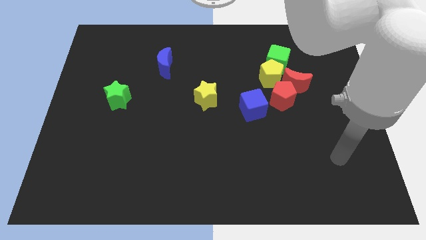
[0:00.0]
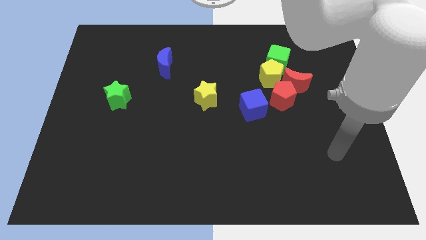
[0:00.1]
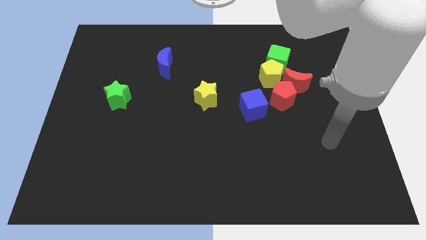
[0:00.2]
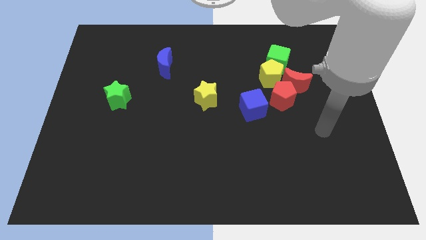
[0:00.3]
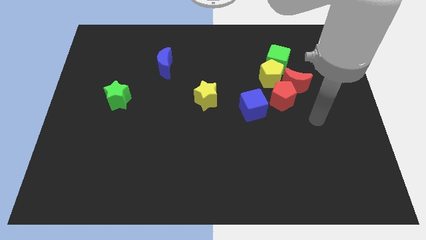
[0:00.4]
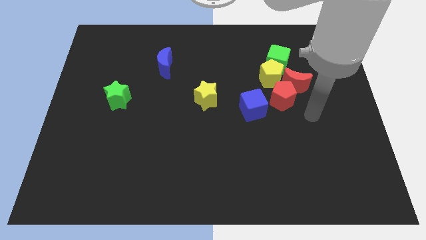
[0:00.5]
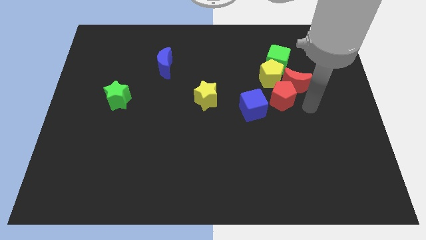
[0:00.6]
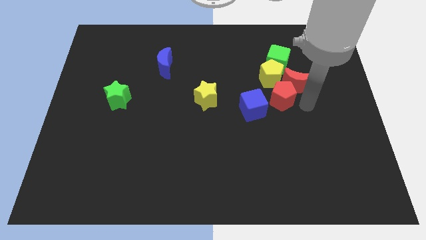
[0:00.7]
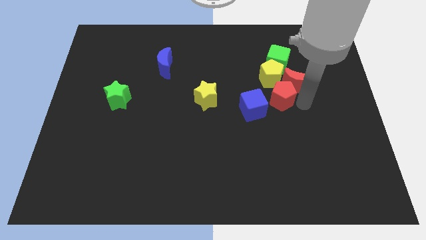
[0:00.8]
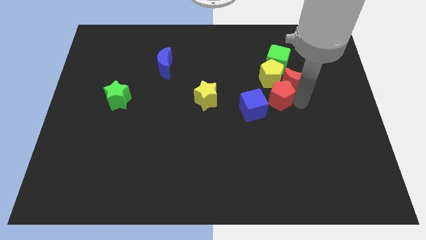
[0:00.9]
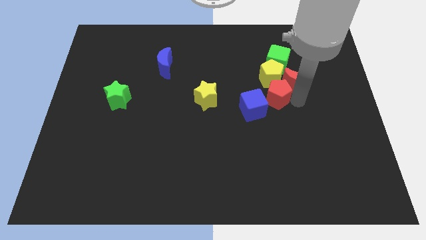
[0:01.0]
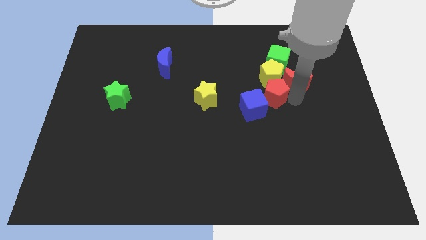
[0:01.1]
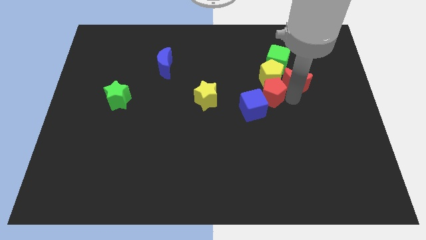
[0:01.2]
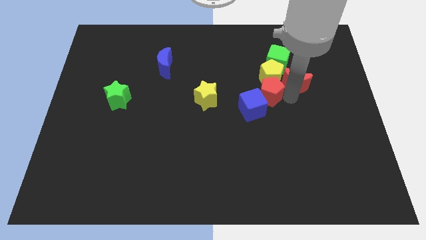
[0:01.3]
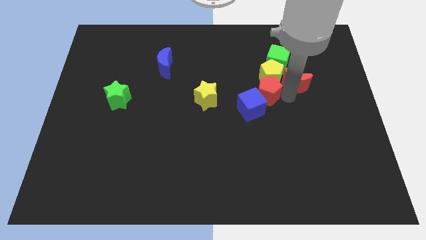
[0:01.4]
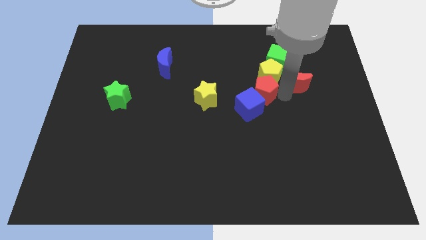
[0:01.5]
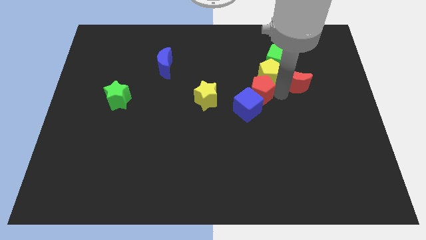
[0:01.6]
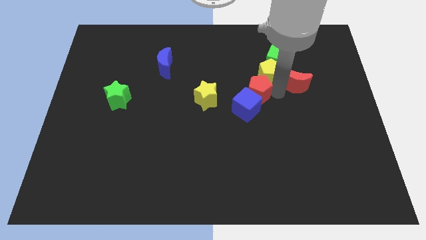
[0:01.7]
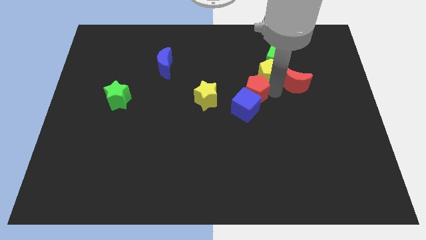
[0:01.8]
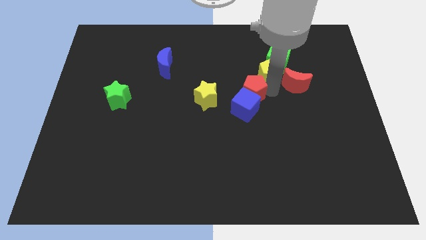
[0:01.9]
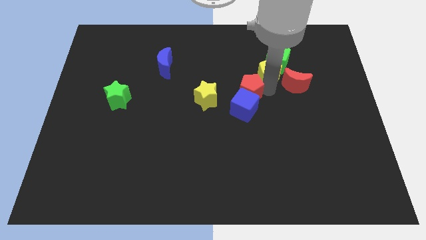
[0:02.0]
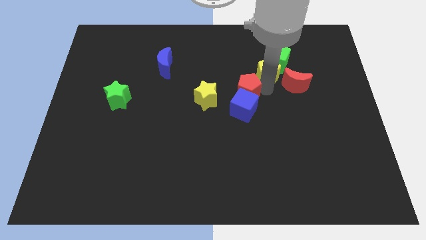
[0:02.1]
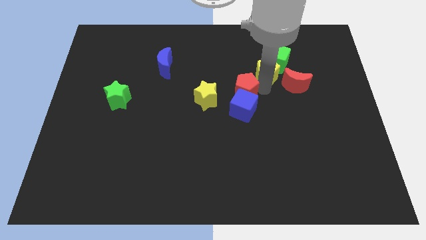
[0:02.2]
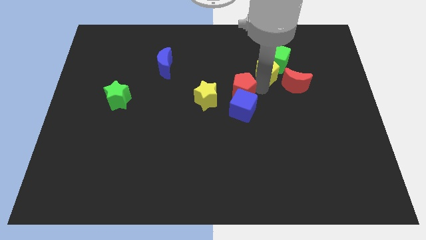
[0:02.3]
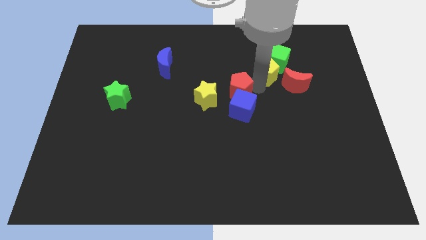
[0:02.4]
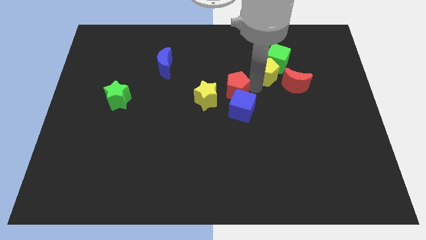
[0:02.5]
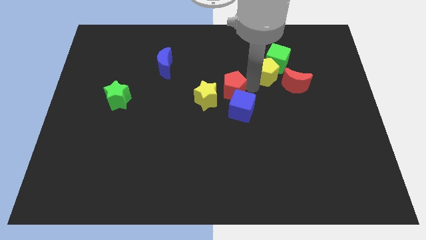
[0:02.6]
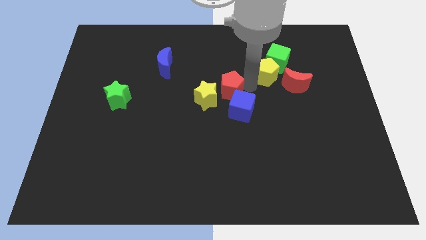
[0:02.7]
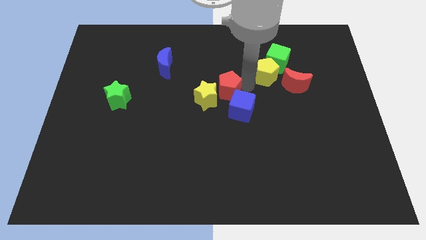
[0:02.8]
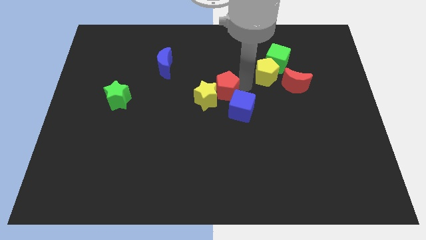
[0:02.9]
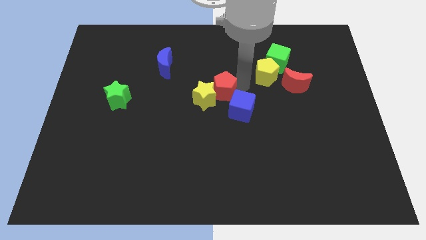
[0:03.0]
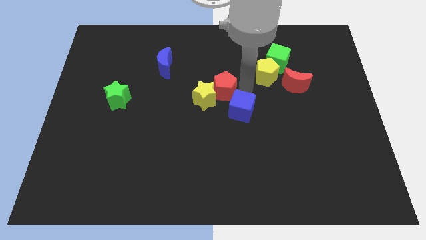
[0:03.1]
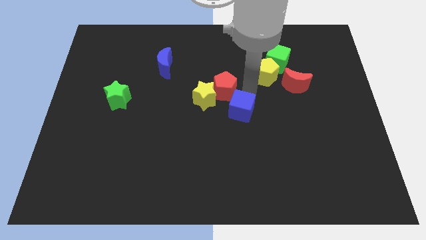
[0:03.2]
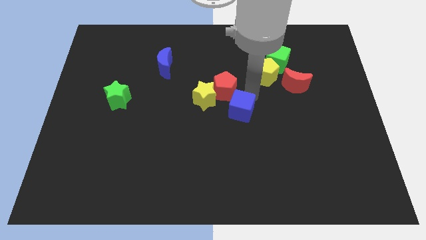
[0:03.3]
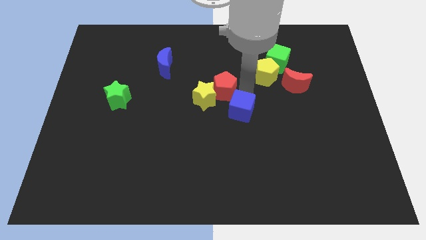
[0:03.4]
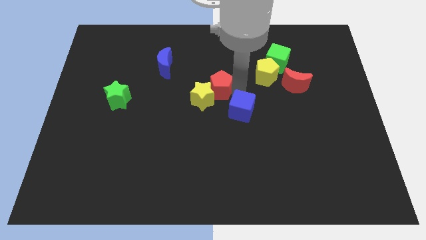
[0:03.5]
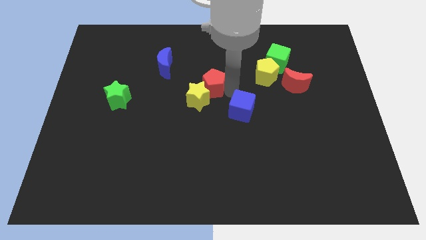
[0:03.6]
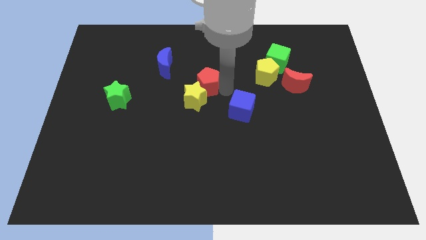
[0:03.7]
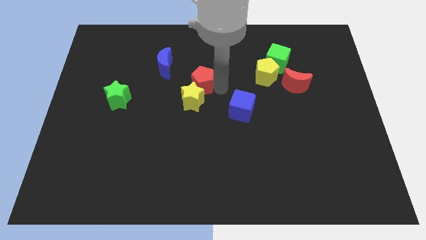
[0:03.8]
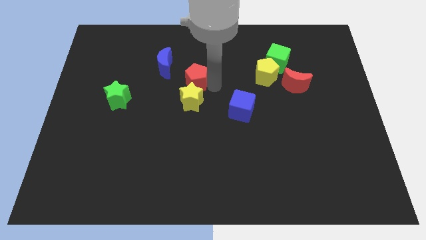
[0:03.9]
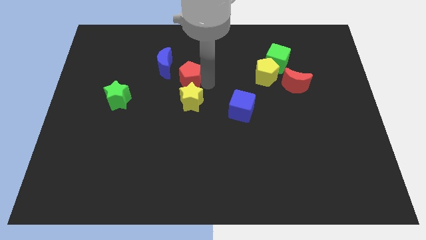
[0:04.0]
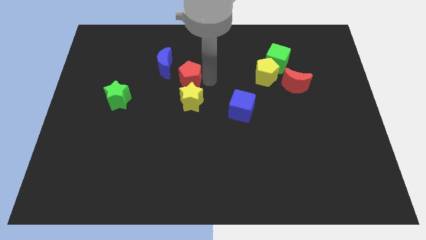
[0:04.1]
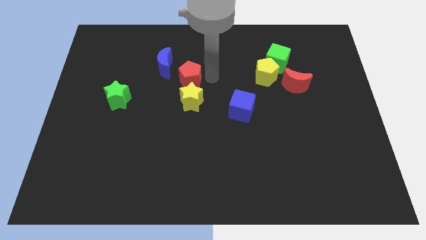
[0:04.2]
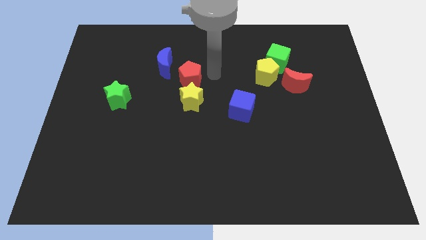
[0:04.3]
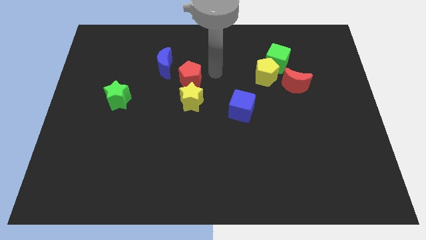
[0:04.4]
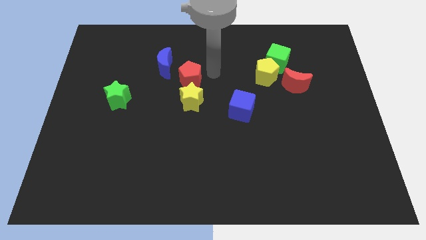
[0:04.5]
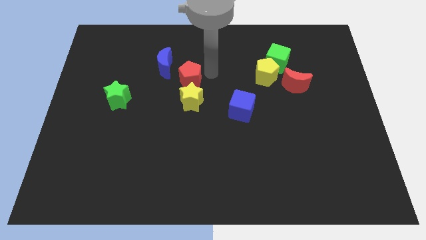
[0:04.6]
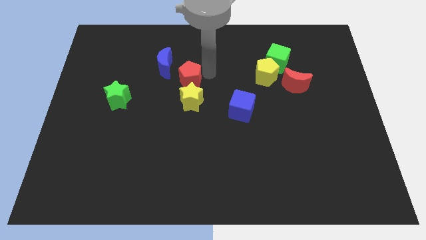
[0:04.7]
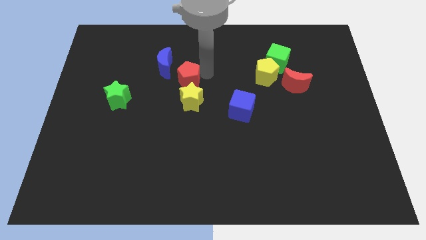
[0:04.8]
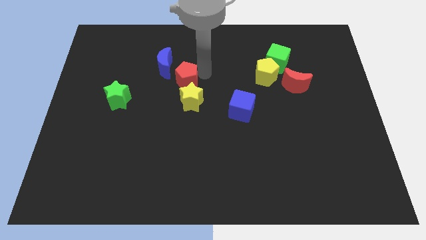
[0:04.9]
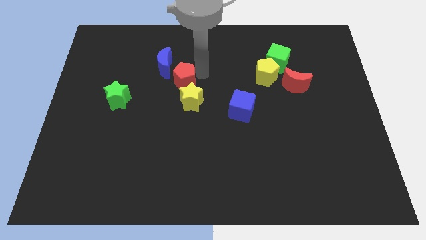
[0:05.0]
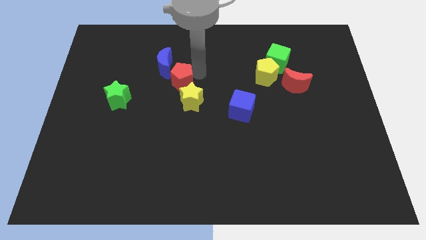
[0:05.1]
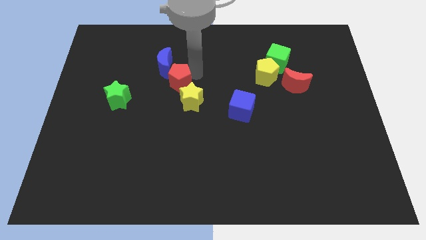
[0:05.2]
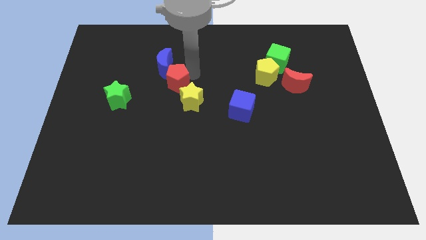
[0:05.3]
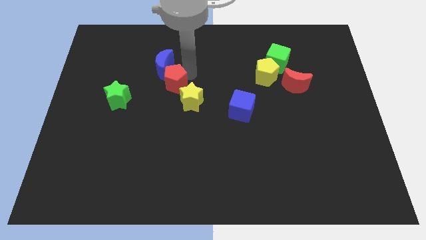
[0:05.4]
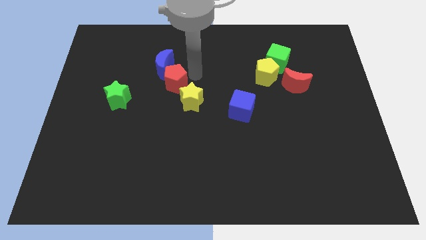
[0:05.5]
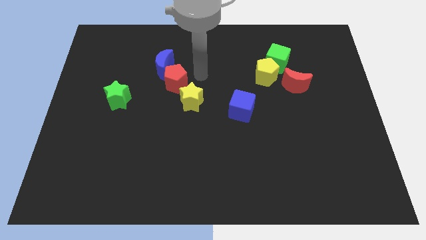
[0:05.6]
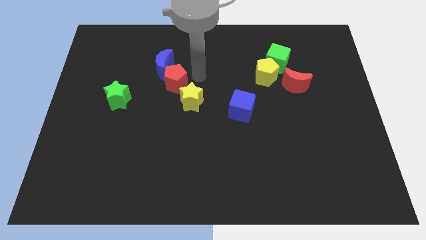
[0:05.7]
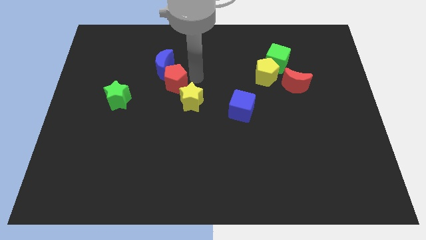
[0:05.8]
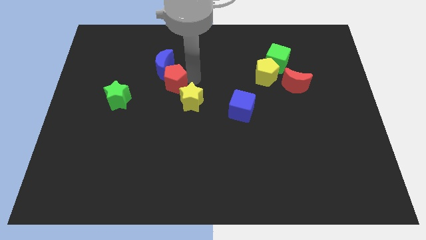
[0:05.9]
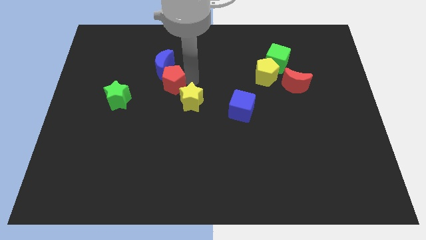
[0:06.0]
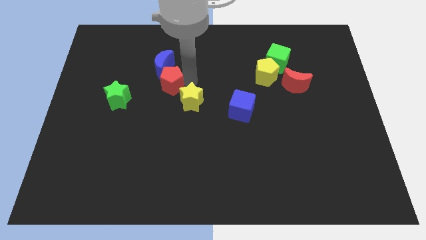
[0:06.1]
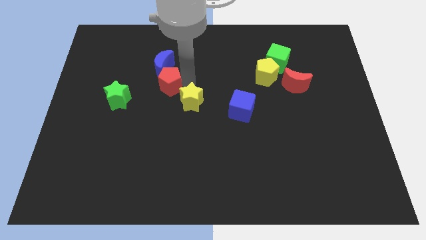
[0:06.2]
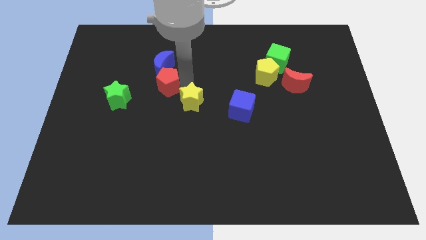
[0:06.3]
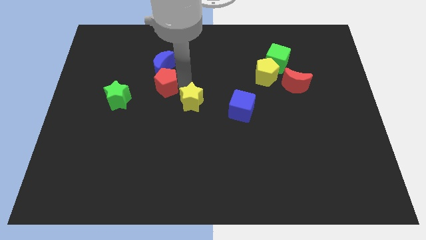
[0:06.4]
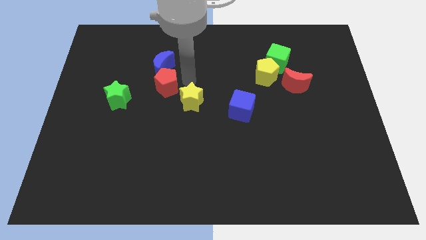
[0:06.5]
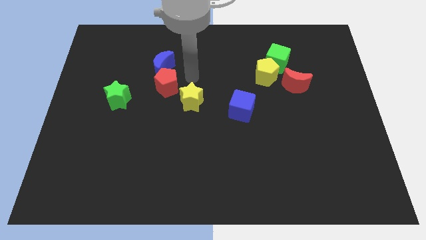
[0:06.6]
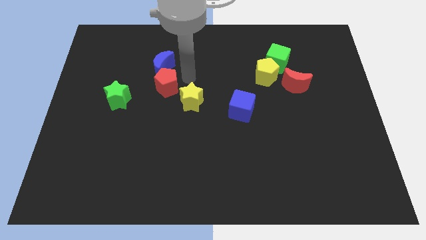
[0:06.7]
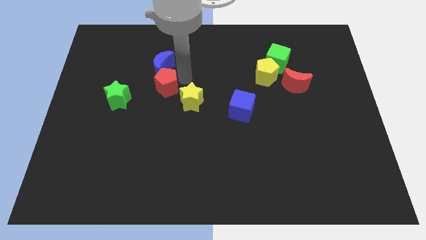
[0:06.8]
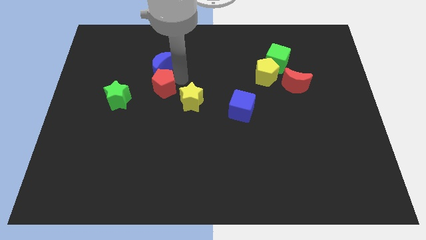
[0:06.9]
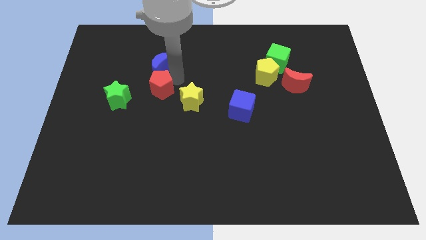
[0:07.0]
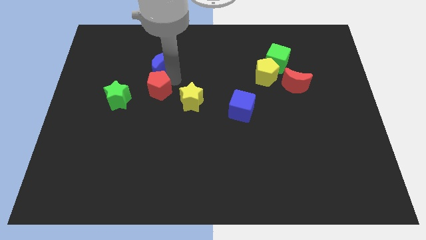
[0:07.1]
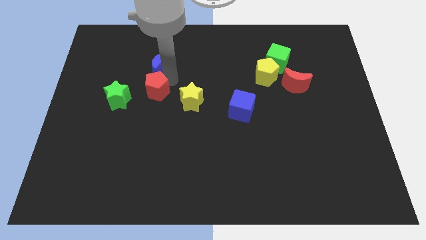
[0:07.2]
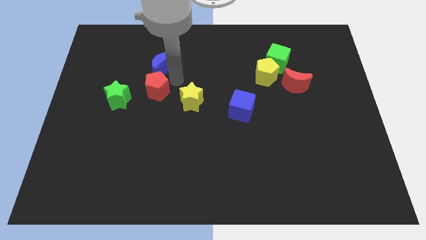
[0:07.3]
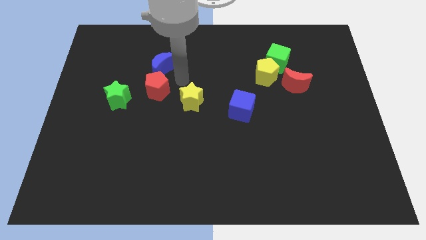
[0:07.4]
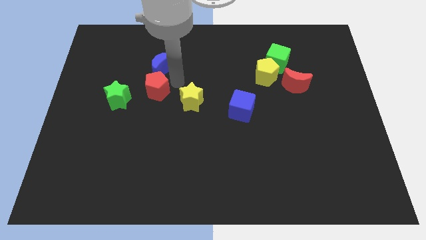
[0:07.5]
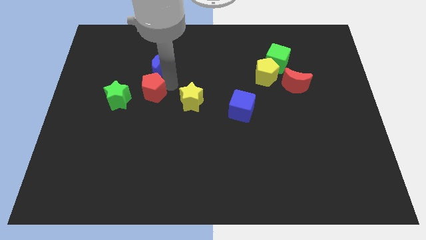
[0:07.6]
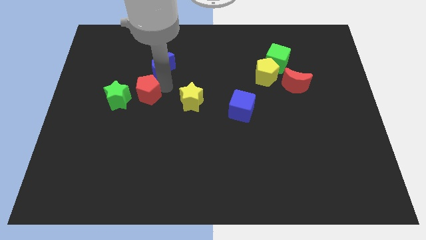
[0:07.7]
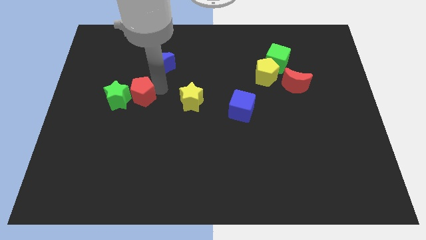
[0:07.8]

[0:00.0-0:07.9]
move the red pentagon next to the green star
